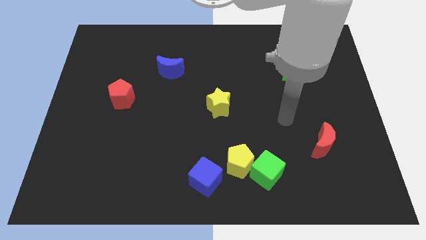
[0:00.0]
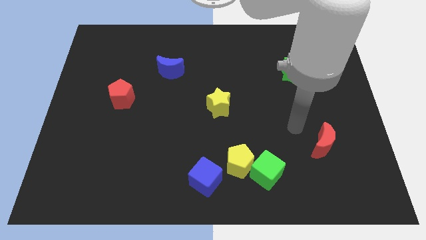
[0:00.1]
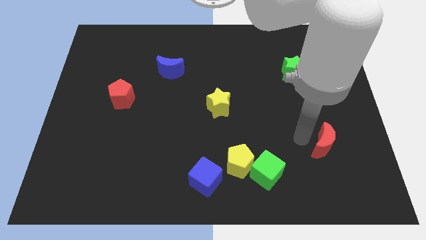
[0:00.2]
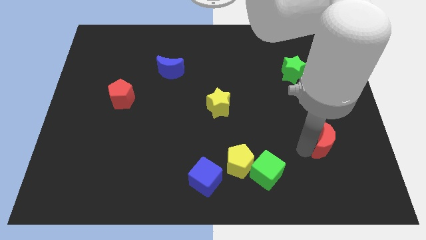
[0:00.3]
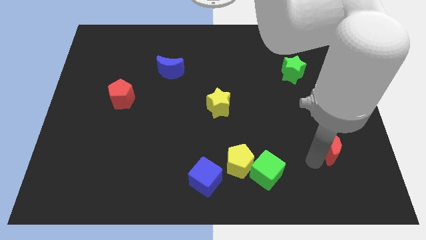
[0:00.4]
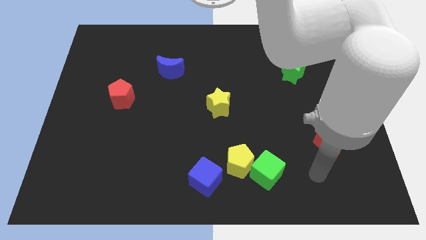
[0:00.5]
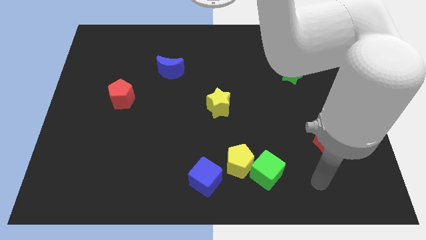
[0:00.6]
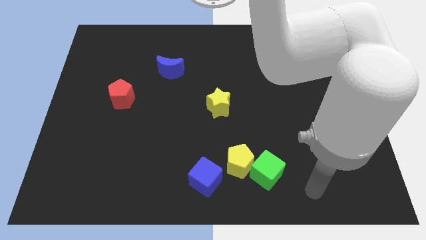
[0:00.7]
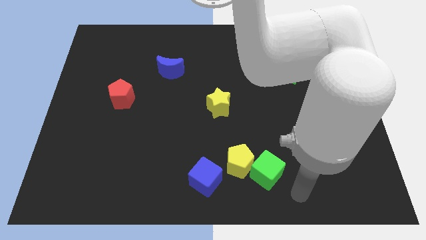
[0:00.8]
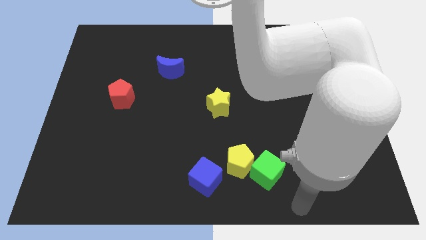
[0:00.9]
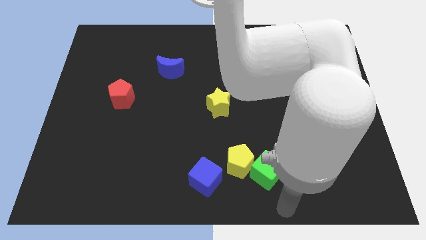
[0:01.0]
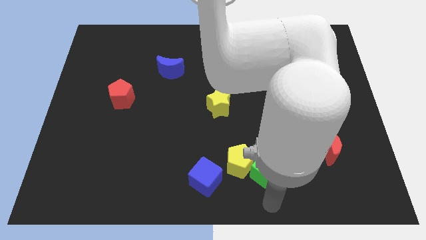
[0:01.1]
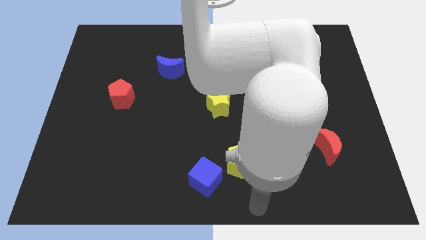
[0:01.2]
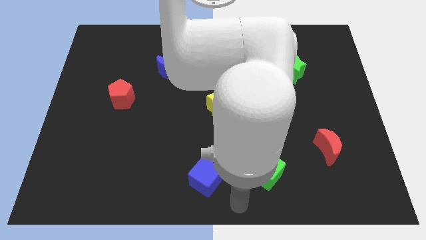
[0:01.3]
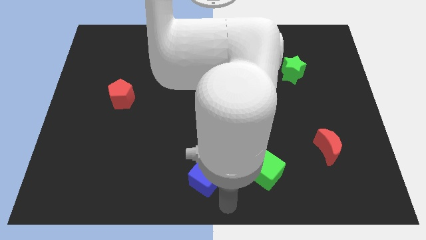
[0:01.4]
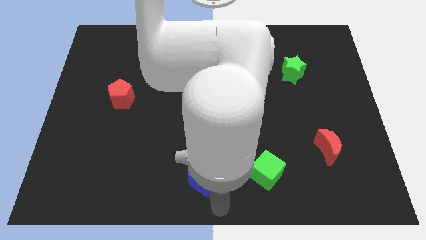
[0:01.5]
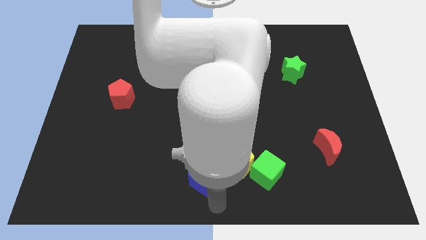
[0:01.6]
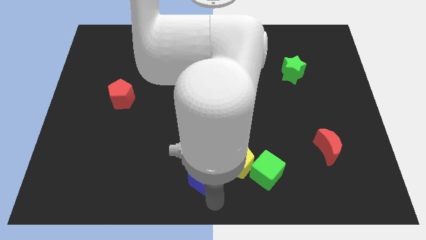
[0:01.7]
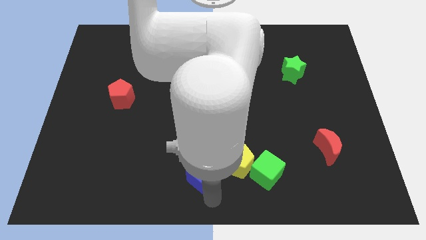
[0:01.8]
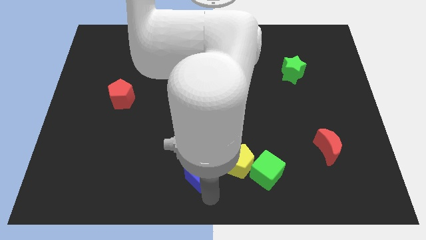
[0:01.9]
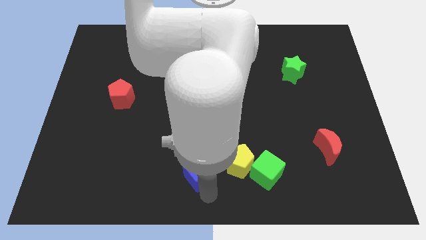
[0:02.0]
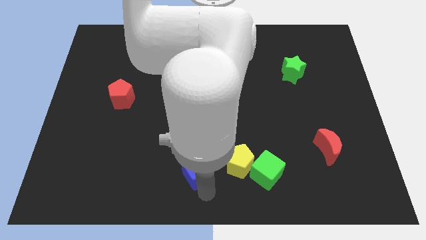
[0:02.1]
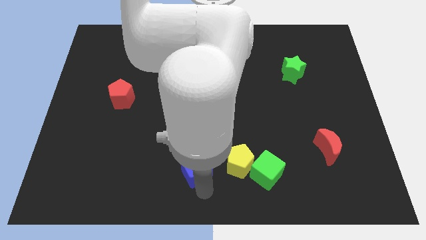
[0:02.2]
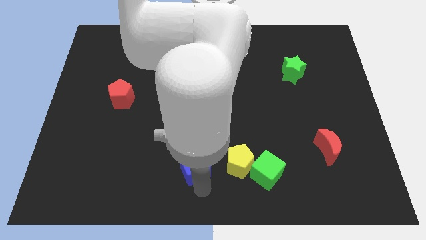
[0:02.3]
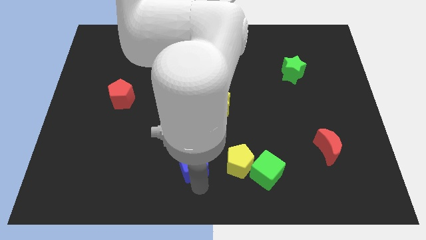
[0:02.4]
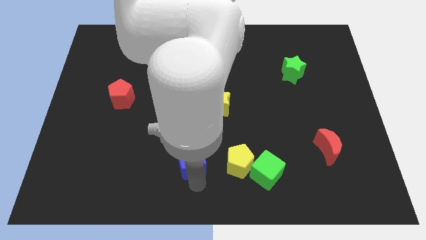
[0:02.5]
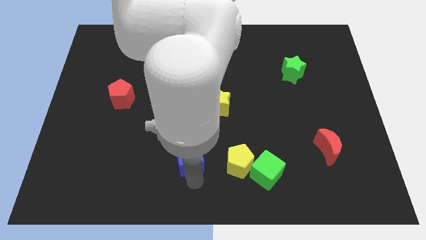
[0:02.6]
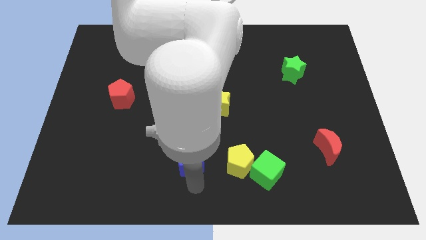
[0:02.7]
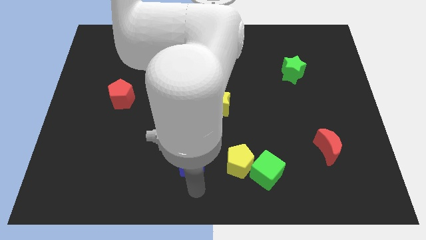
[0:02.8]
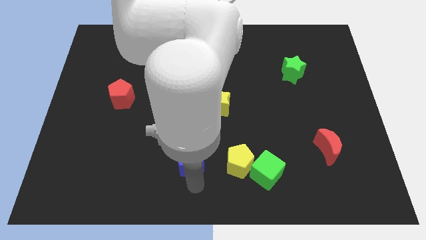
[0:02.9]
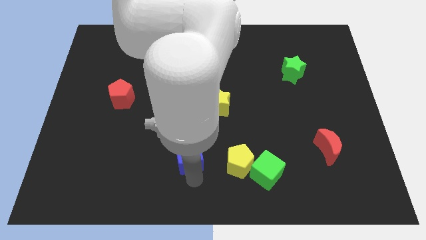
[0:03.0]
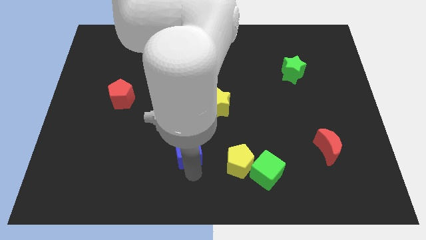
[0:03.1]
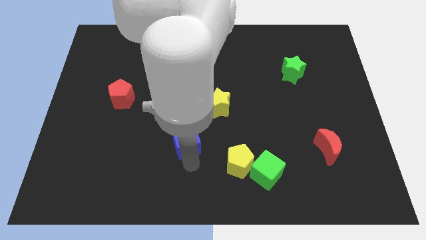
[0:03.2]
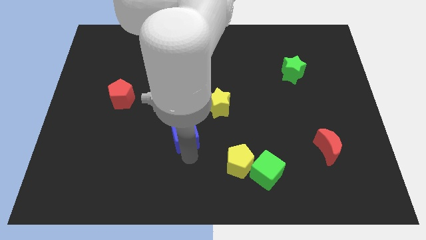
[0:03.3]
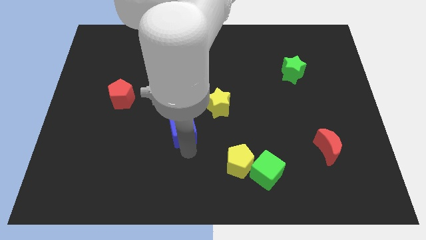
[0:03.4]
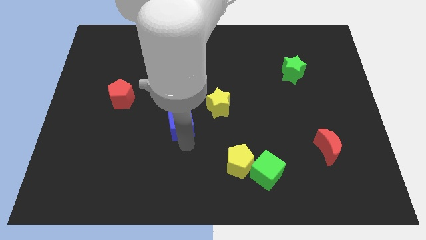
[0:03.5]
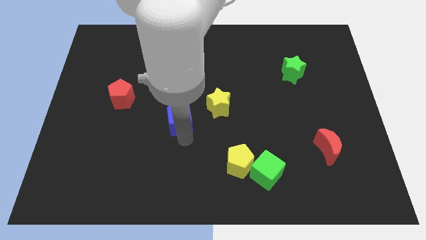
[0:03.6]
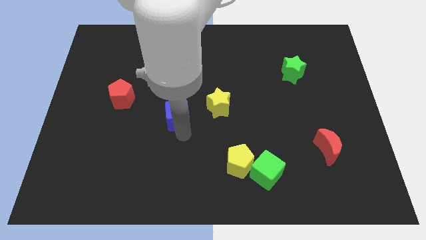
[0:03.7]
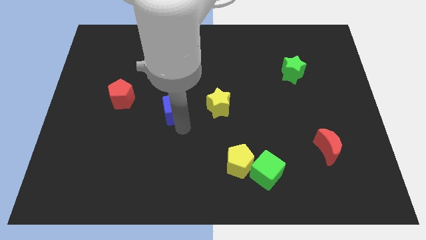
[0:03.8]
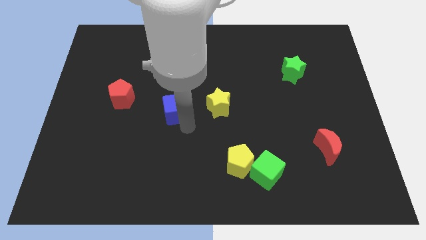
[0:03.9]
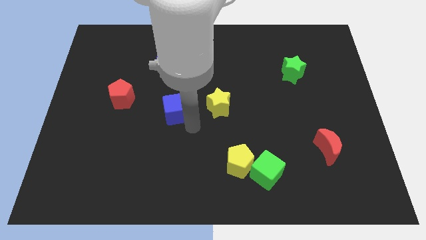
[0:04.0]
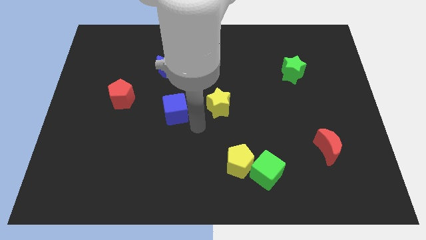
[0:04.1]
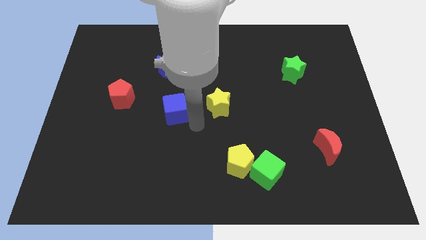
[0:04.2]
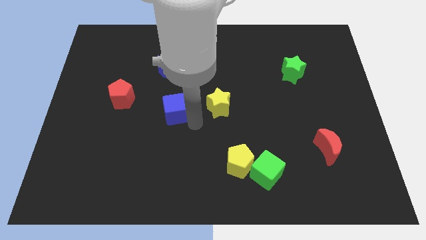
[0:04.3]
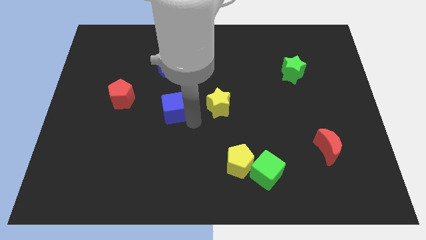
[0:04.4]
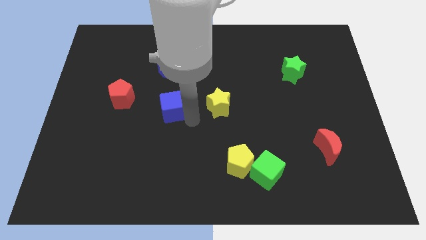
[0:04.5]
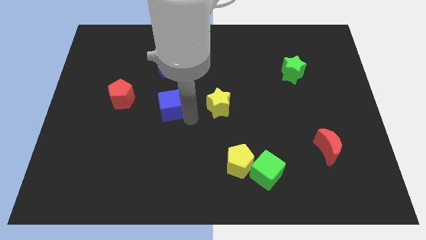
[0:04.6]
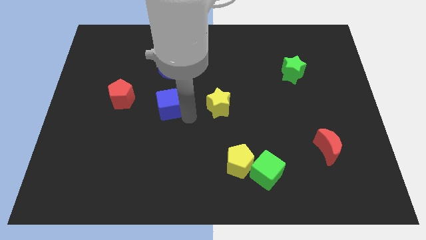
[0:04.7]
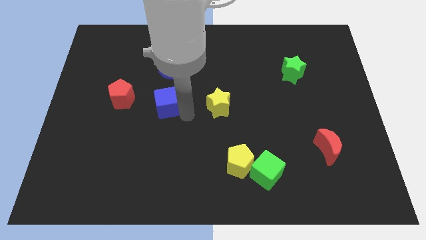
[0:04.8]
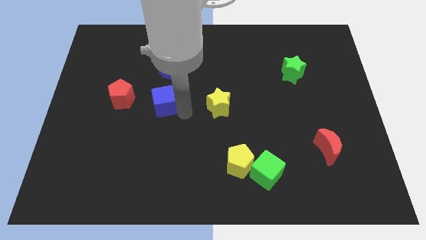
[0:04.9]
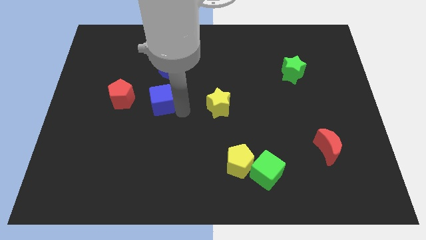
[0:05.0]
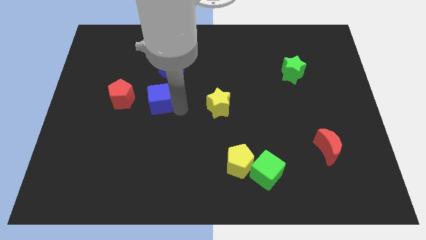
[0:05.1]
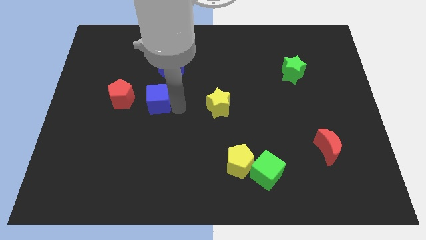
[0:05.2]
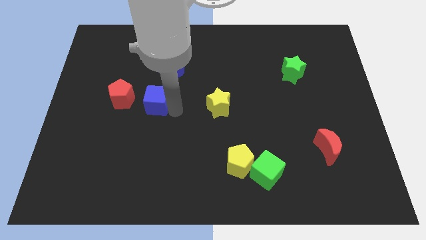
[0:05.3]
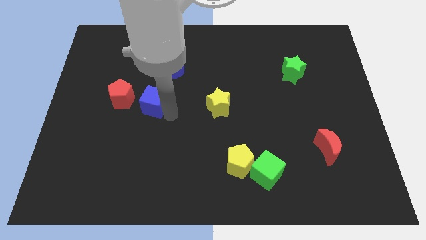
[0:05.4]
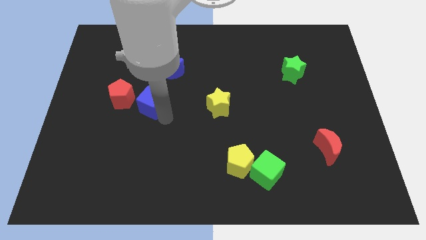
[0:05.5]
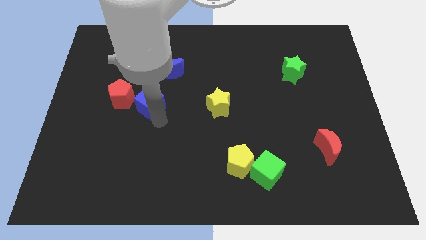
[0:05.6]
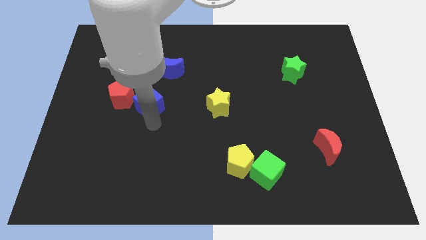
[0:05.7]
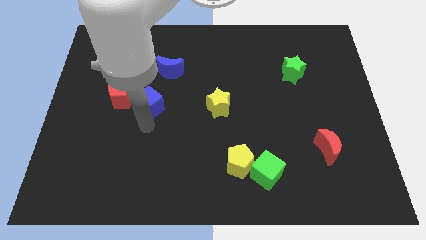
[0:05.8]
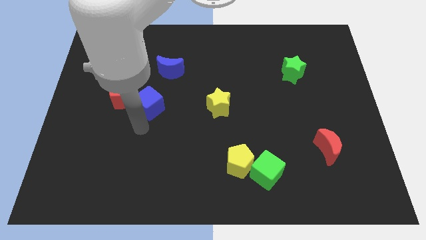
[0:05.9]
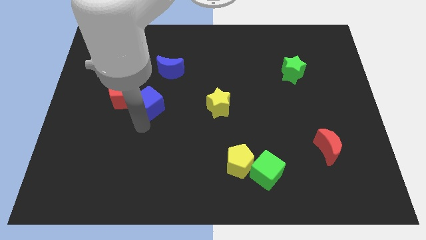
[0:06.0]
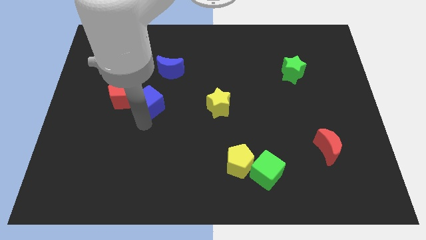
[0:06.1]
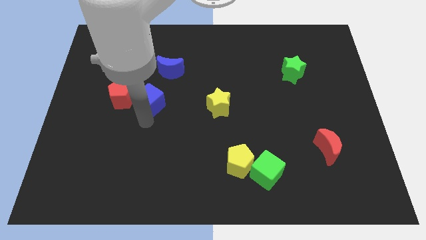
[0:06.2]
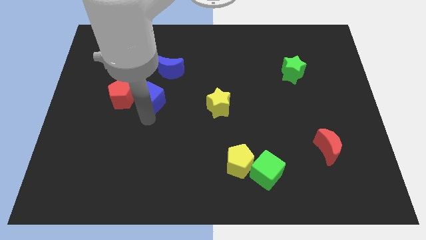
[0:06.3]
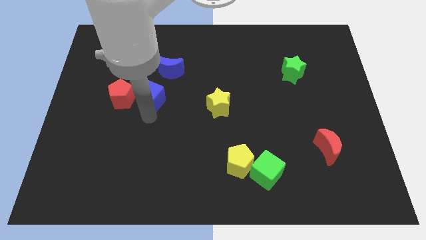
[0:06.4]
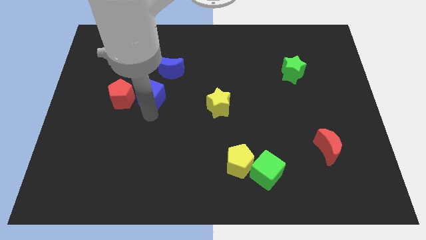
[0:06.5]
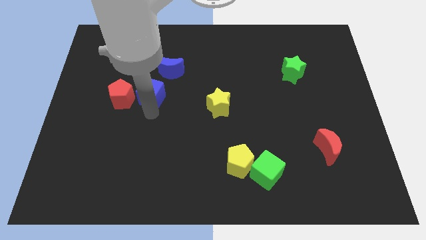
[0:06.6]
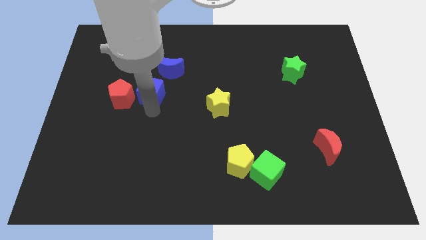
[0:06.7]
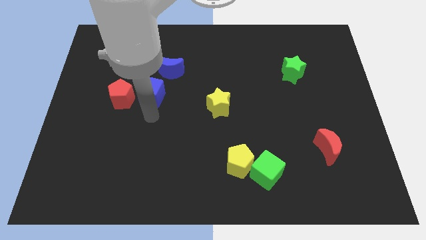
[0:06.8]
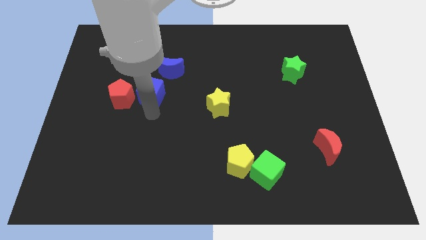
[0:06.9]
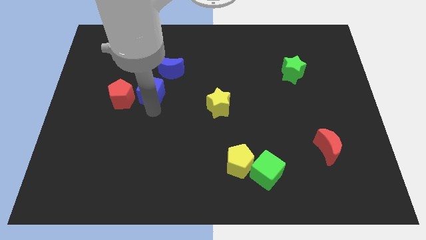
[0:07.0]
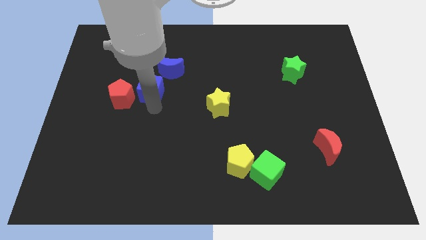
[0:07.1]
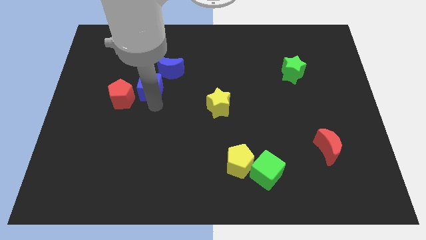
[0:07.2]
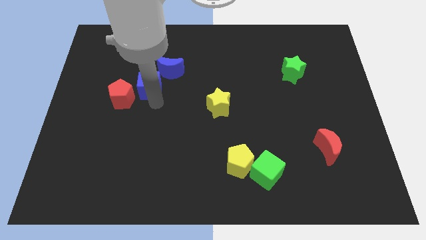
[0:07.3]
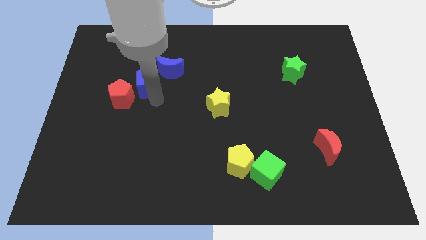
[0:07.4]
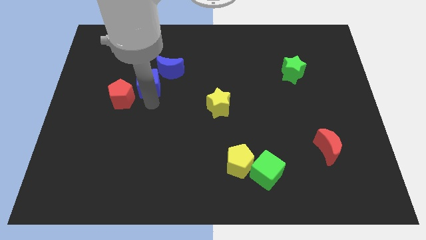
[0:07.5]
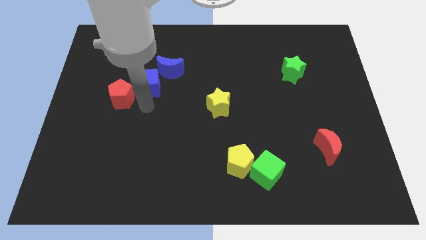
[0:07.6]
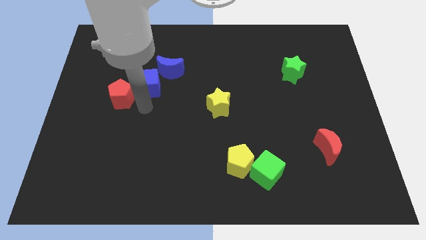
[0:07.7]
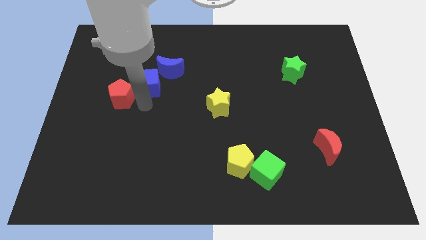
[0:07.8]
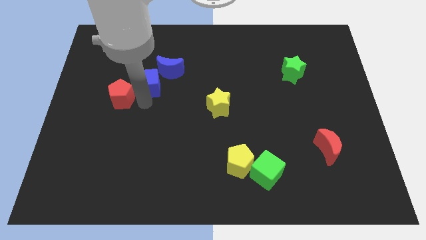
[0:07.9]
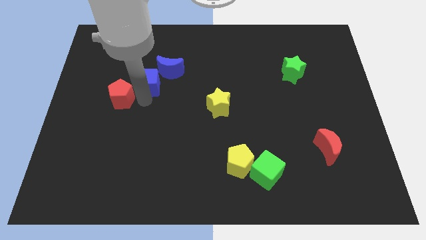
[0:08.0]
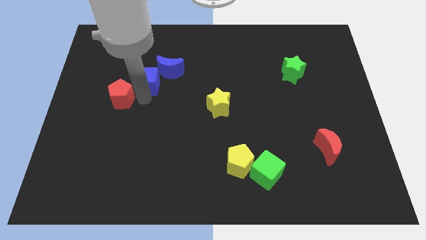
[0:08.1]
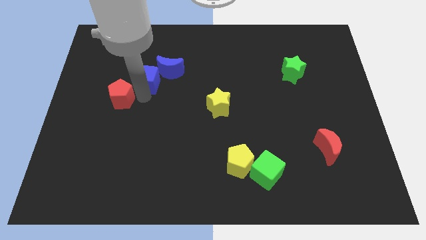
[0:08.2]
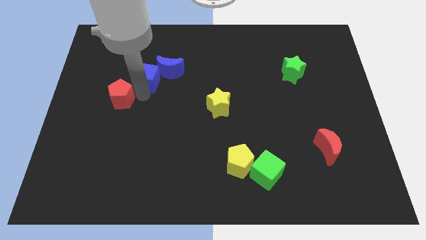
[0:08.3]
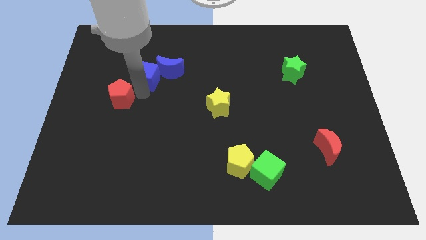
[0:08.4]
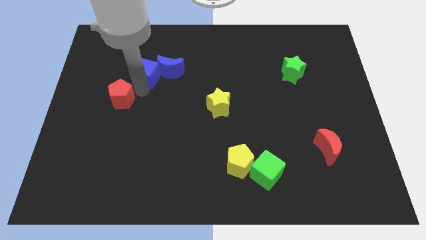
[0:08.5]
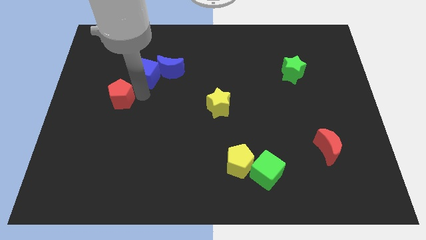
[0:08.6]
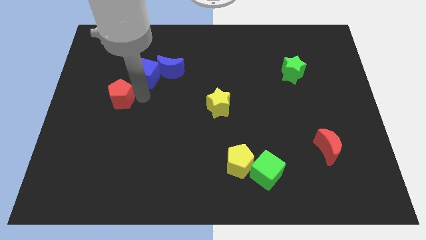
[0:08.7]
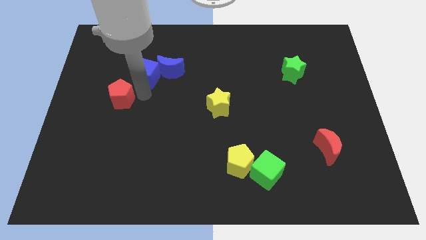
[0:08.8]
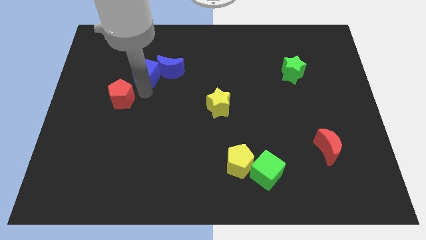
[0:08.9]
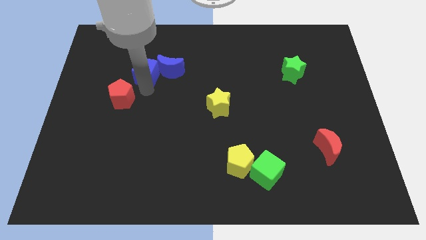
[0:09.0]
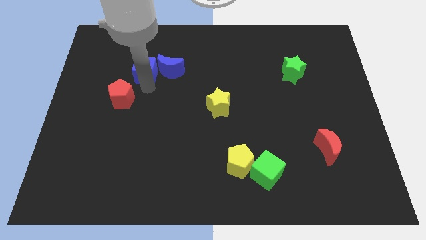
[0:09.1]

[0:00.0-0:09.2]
push the blue cube to the top left of the blue moon
